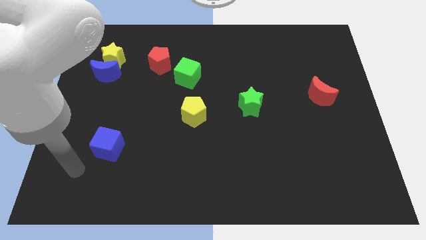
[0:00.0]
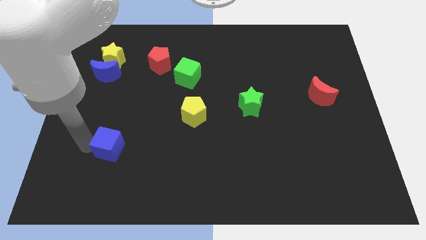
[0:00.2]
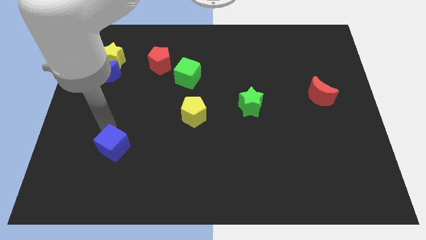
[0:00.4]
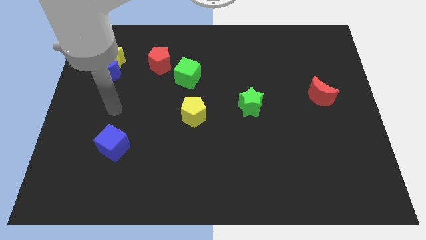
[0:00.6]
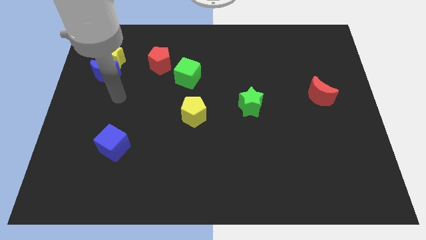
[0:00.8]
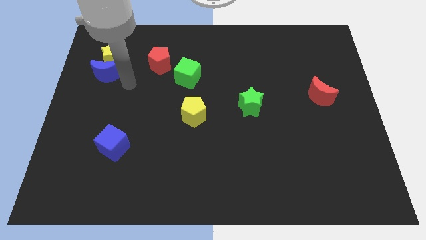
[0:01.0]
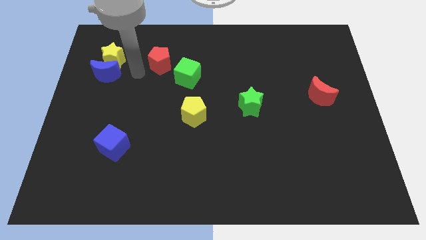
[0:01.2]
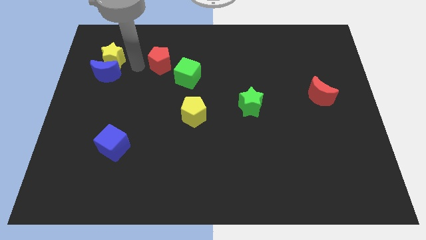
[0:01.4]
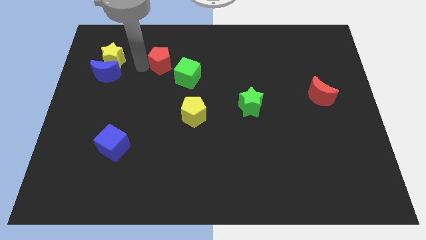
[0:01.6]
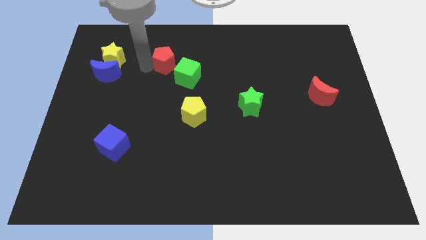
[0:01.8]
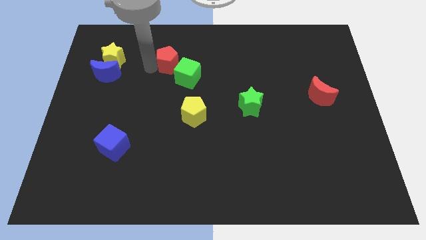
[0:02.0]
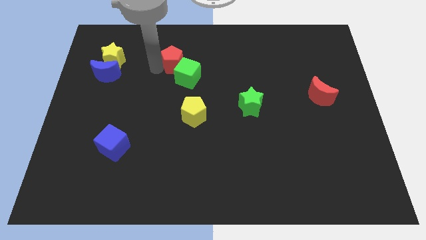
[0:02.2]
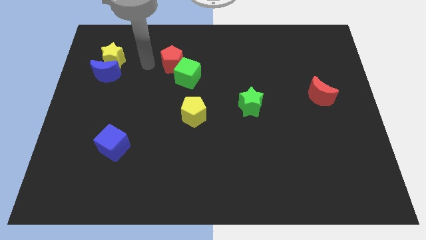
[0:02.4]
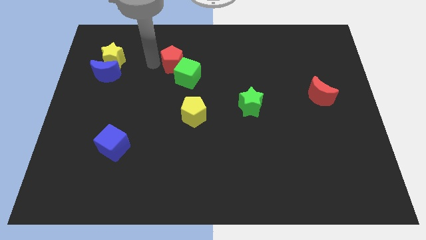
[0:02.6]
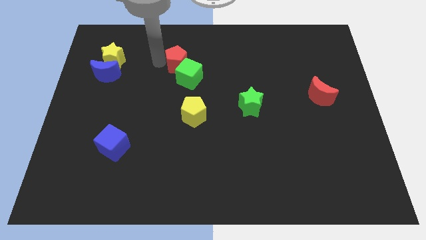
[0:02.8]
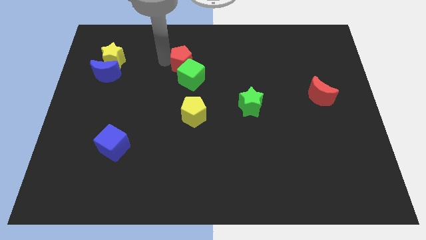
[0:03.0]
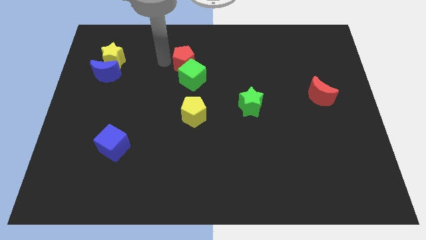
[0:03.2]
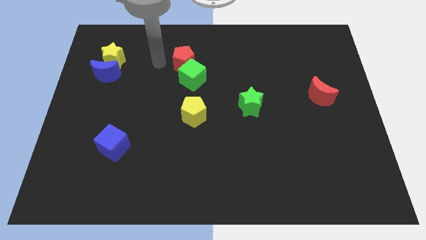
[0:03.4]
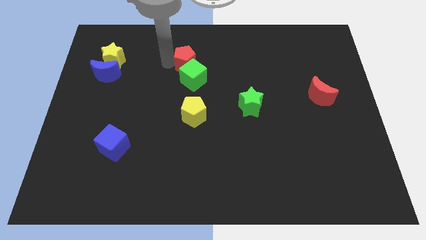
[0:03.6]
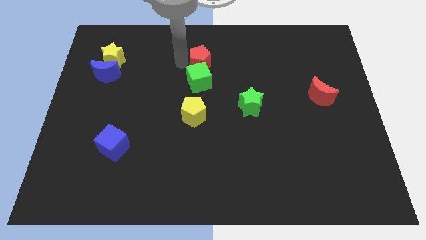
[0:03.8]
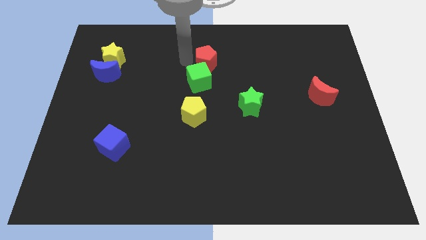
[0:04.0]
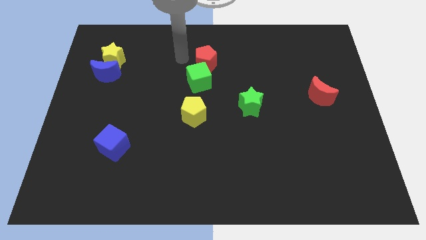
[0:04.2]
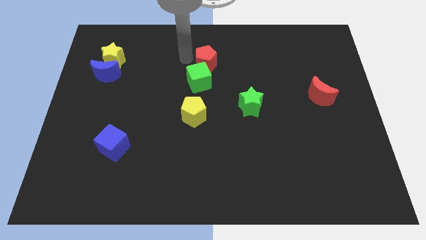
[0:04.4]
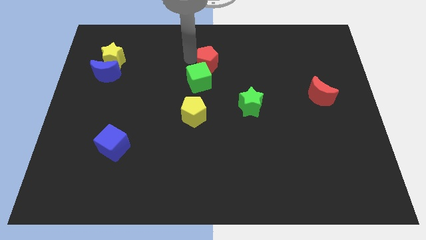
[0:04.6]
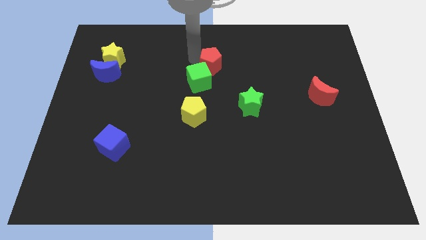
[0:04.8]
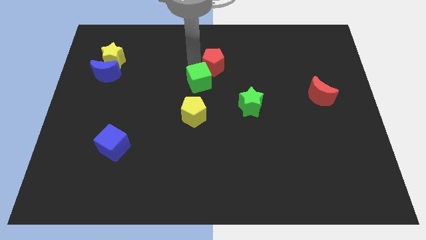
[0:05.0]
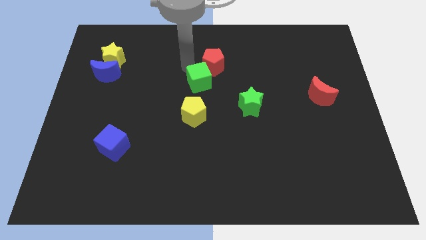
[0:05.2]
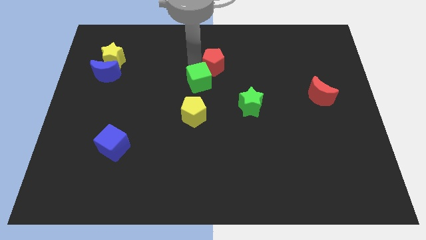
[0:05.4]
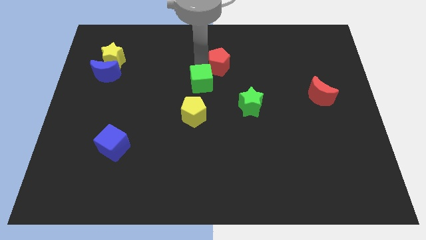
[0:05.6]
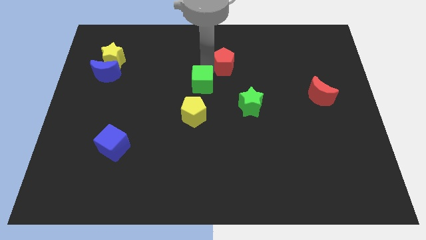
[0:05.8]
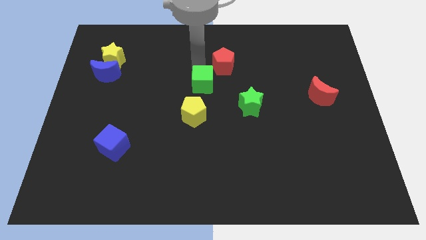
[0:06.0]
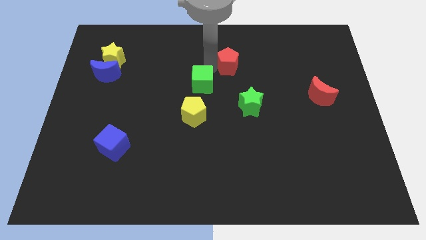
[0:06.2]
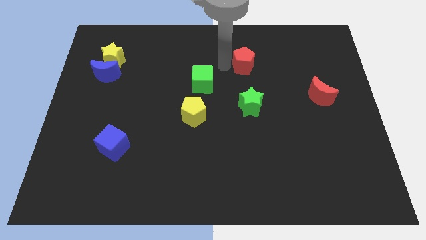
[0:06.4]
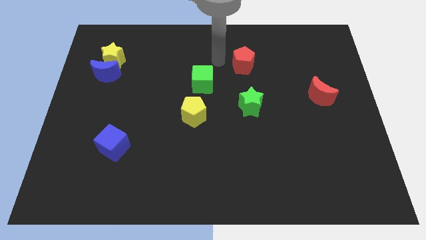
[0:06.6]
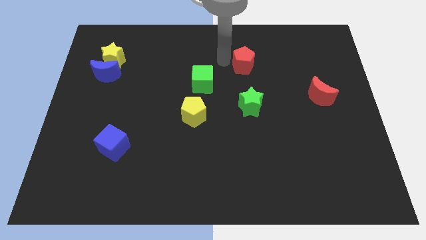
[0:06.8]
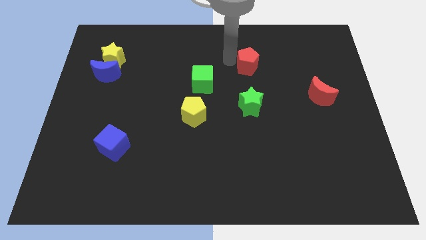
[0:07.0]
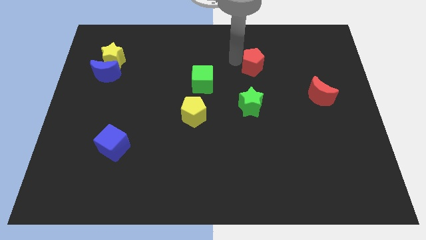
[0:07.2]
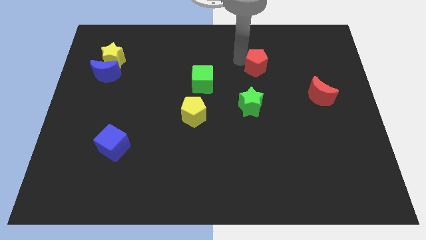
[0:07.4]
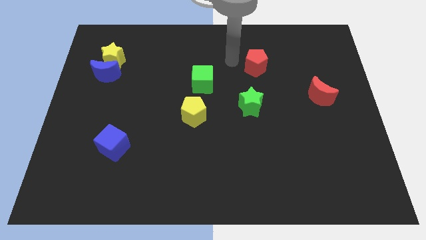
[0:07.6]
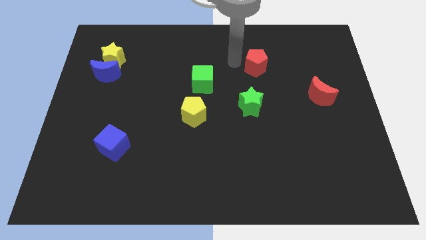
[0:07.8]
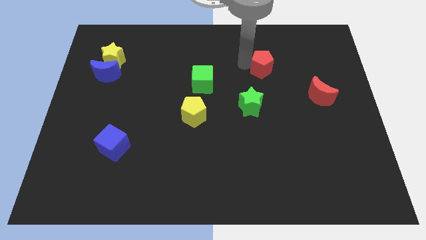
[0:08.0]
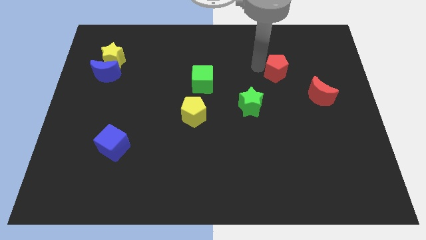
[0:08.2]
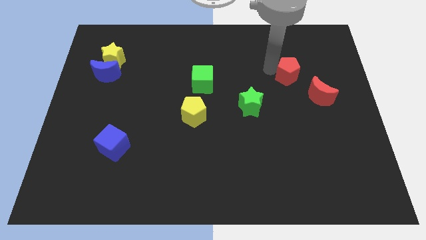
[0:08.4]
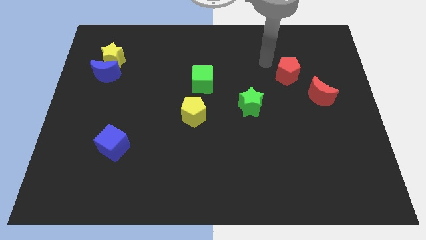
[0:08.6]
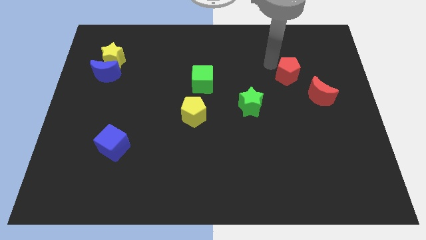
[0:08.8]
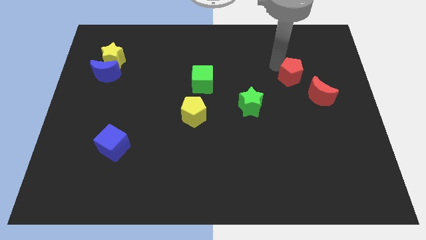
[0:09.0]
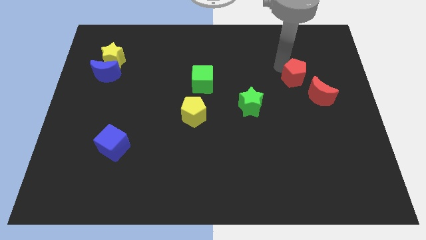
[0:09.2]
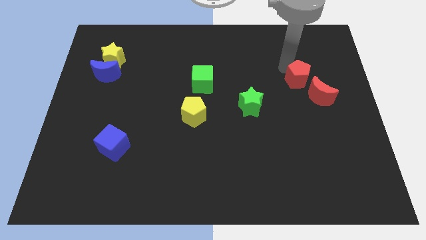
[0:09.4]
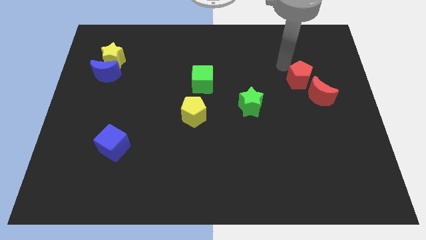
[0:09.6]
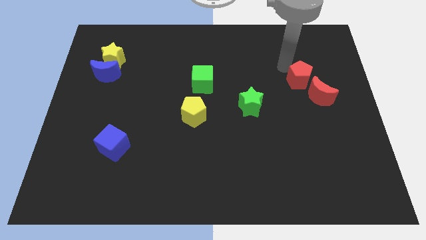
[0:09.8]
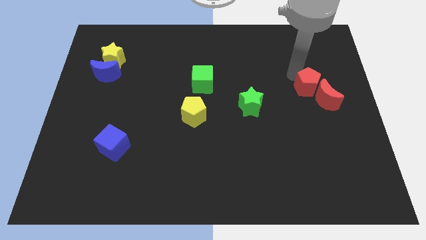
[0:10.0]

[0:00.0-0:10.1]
slide the red pentagon towards the red moon

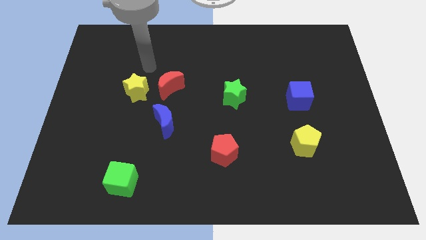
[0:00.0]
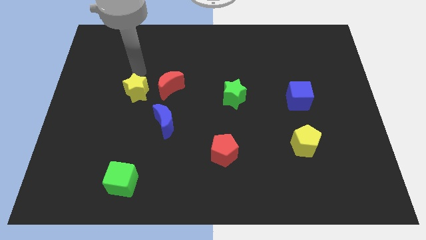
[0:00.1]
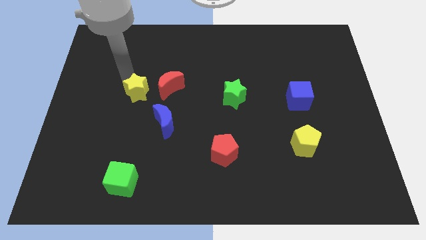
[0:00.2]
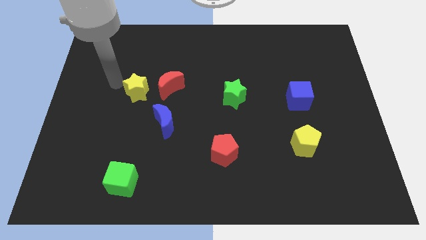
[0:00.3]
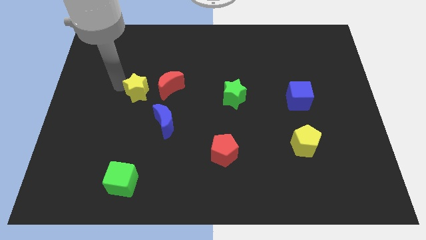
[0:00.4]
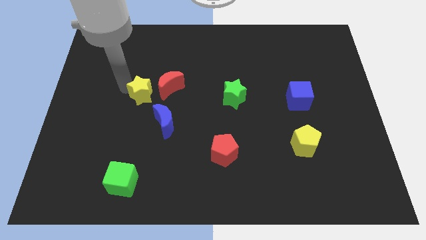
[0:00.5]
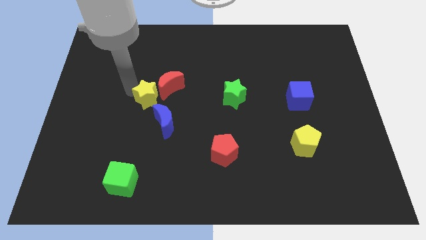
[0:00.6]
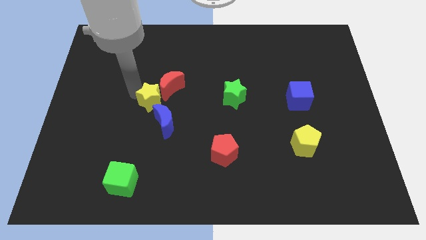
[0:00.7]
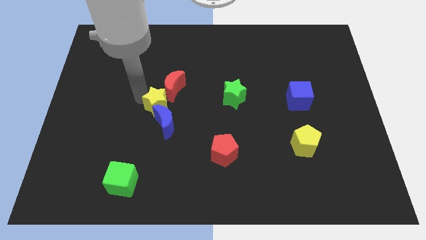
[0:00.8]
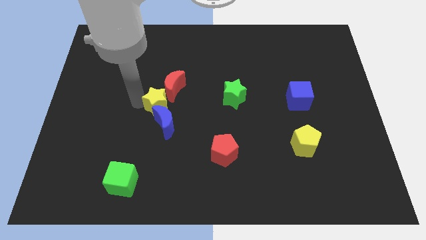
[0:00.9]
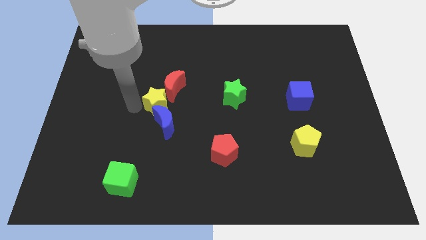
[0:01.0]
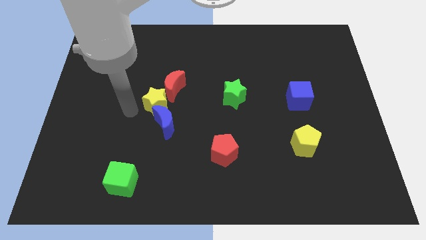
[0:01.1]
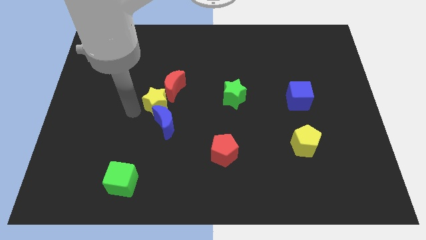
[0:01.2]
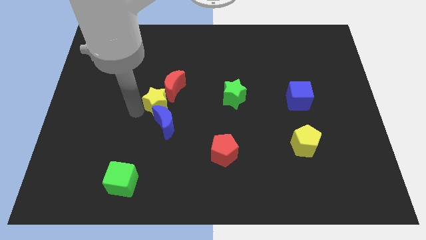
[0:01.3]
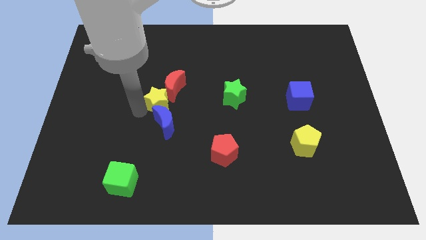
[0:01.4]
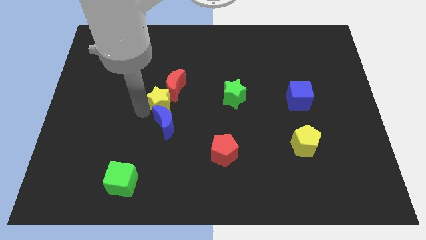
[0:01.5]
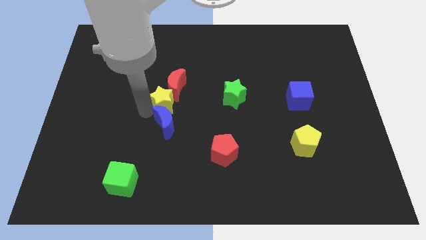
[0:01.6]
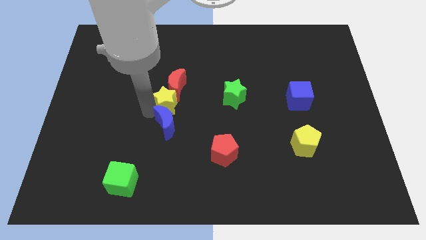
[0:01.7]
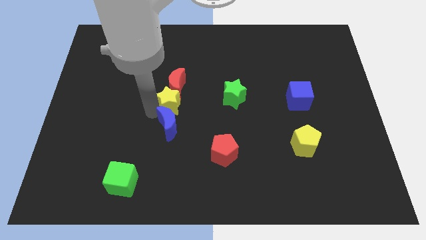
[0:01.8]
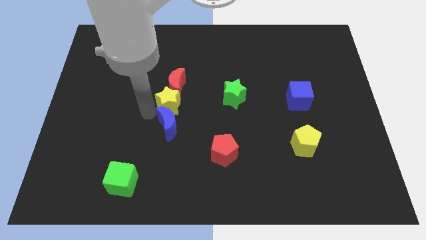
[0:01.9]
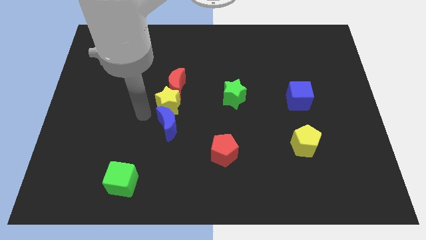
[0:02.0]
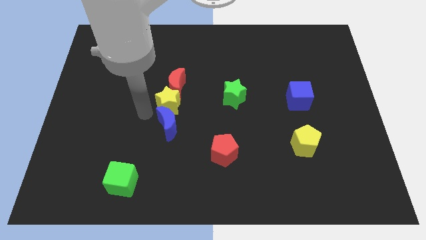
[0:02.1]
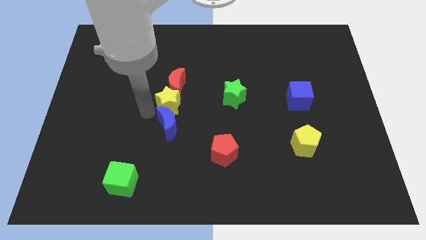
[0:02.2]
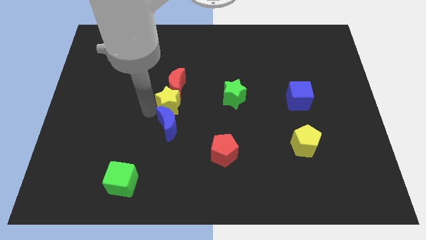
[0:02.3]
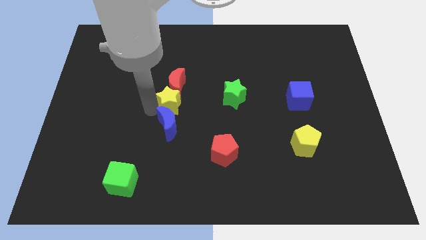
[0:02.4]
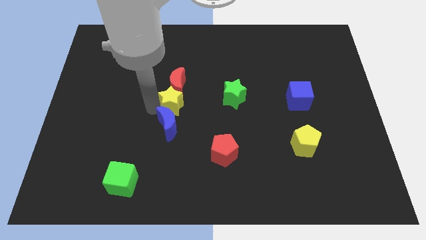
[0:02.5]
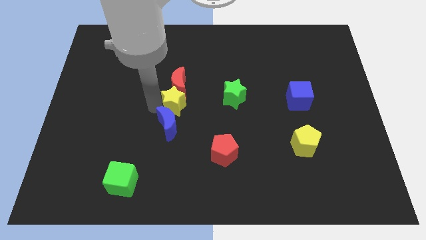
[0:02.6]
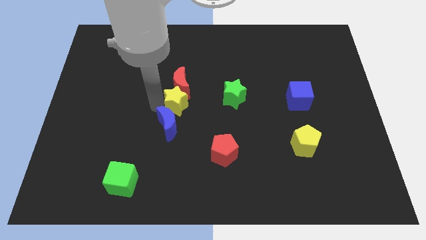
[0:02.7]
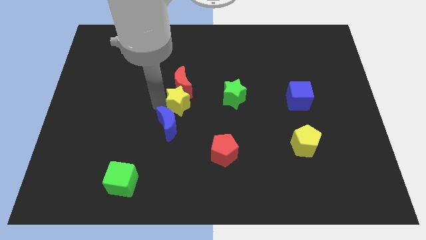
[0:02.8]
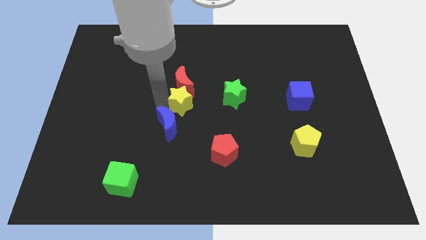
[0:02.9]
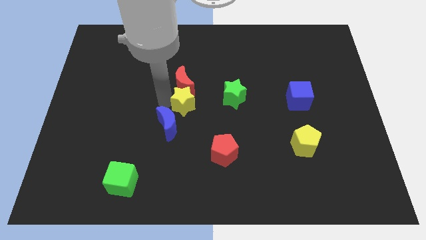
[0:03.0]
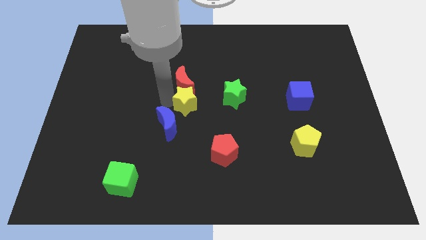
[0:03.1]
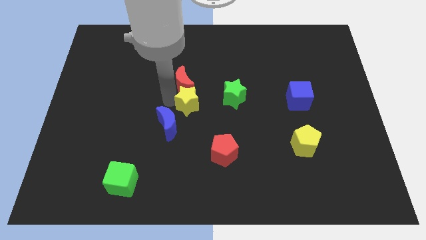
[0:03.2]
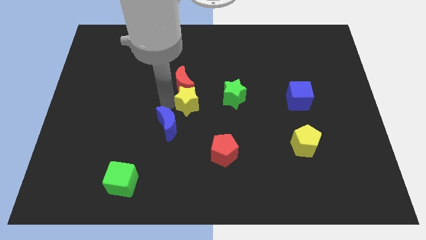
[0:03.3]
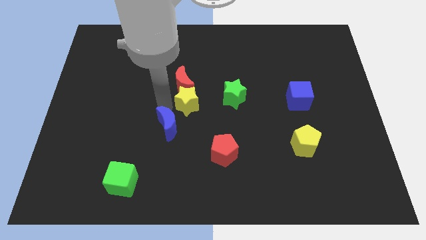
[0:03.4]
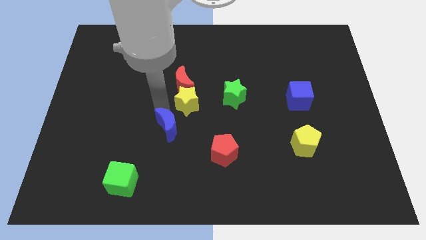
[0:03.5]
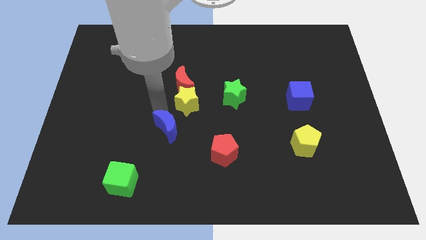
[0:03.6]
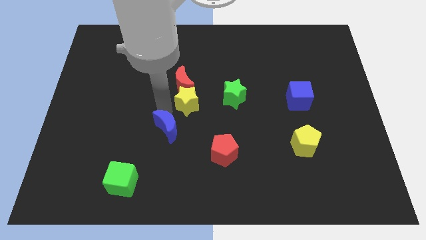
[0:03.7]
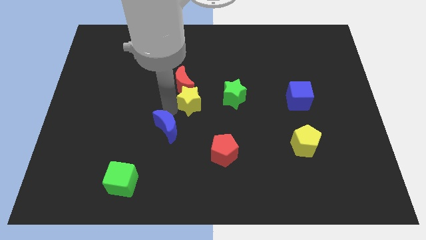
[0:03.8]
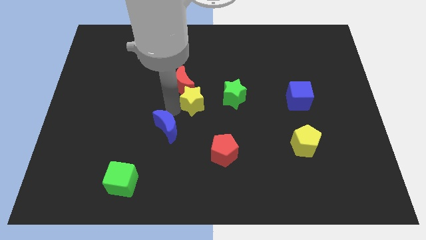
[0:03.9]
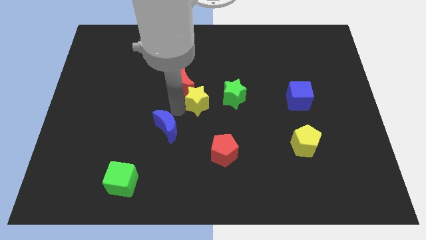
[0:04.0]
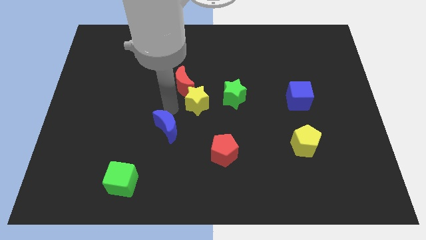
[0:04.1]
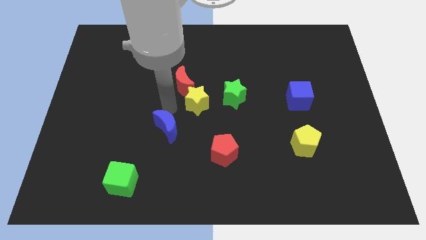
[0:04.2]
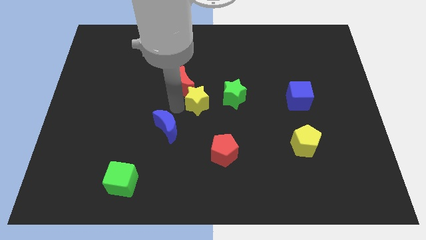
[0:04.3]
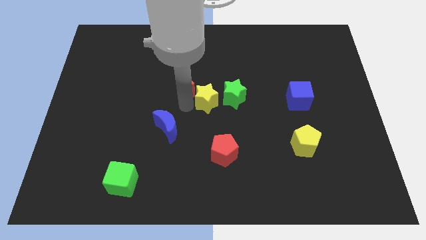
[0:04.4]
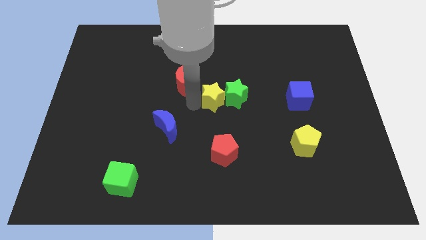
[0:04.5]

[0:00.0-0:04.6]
put the yellow star close to the green star
